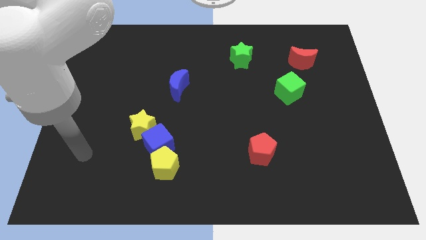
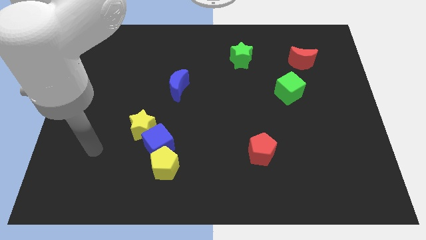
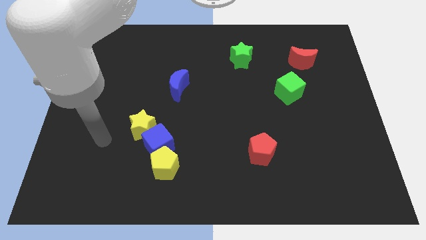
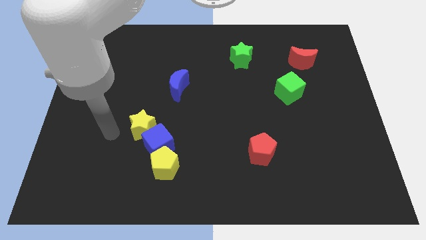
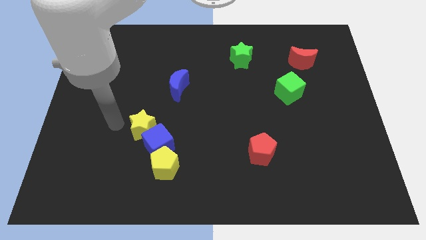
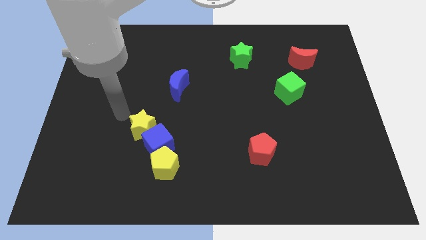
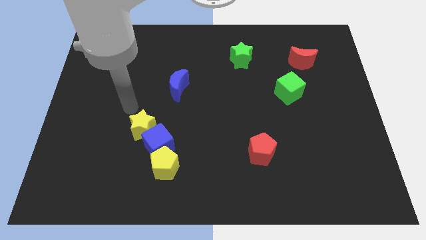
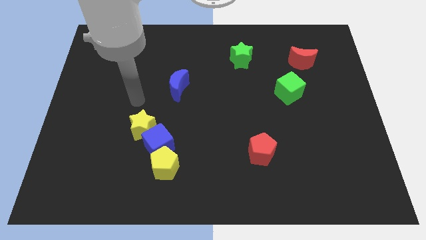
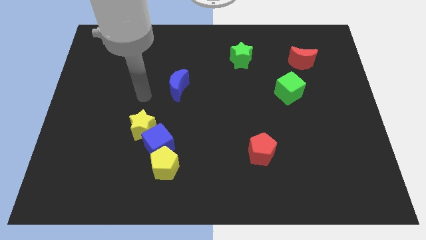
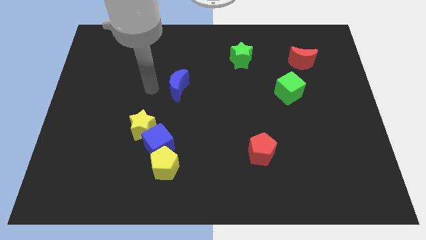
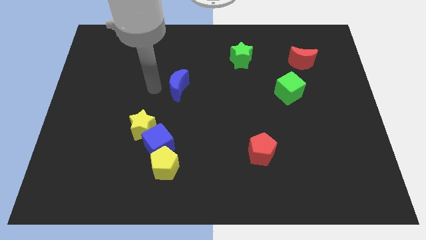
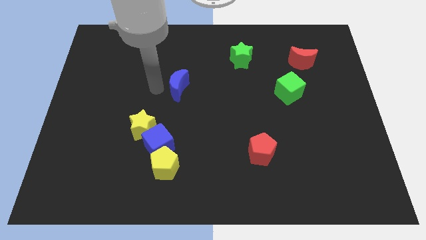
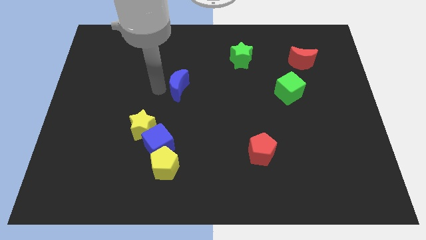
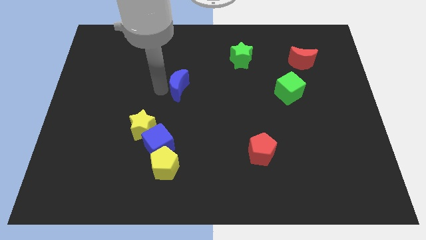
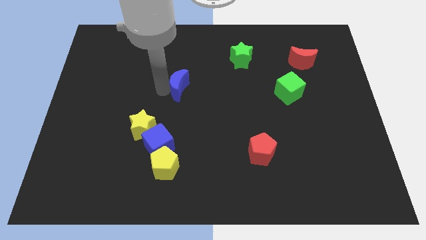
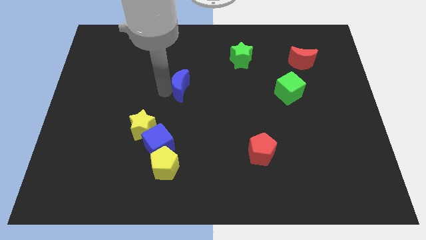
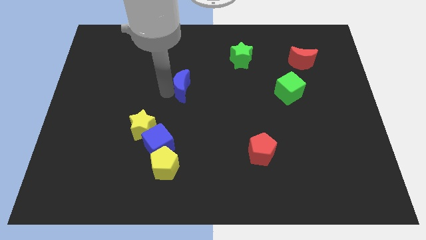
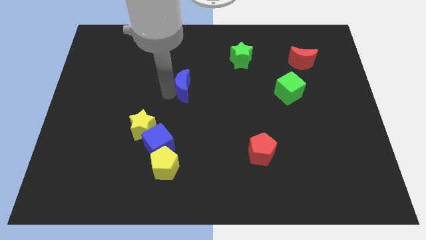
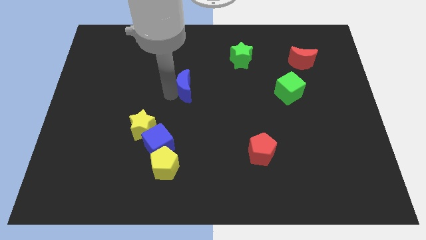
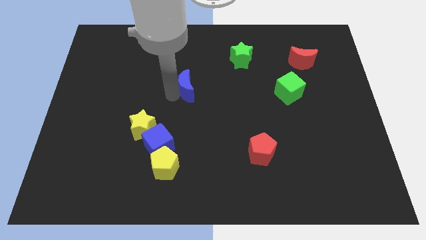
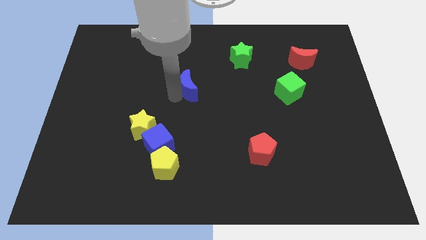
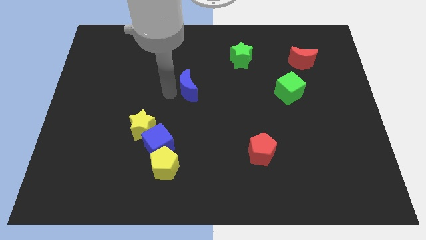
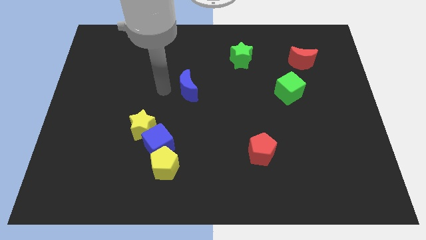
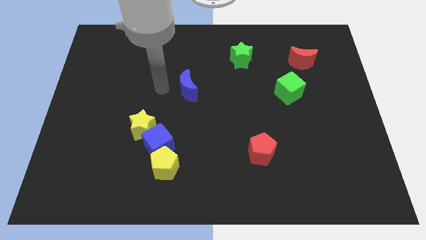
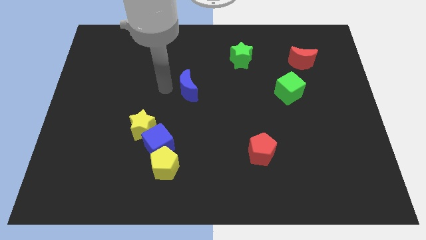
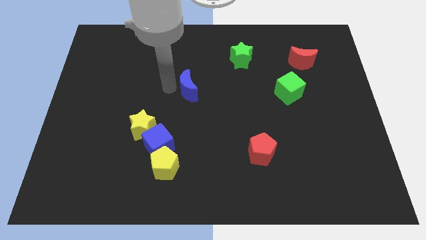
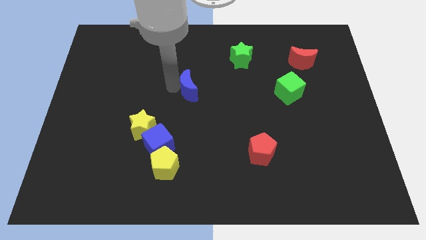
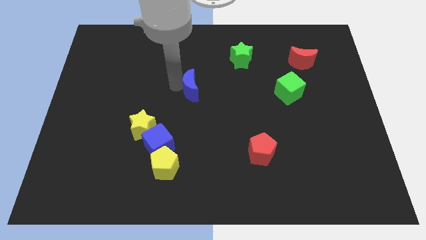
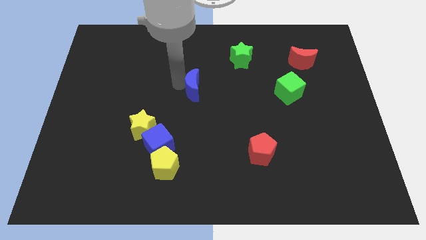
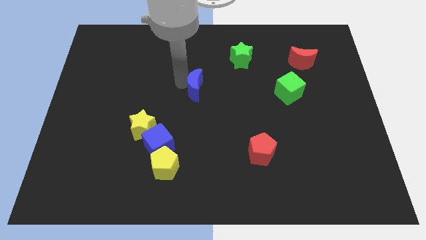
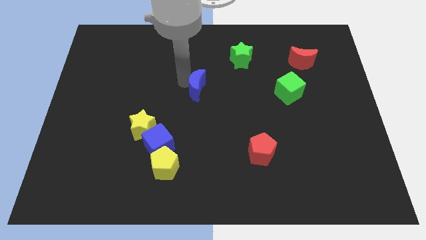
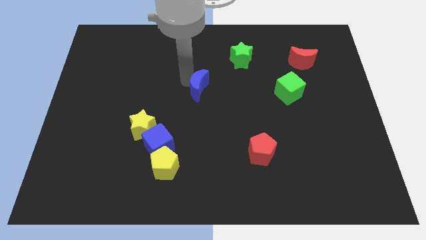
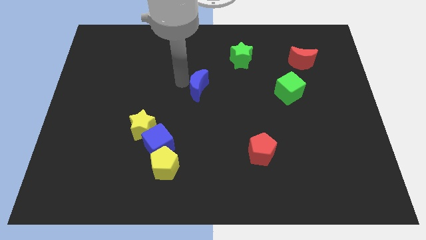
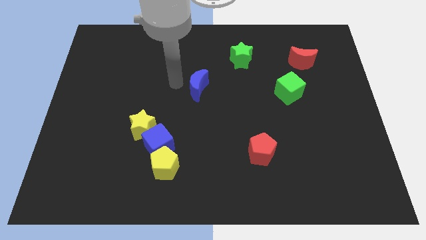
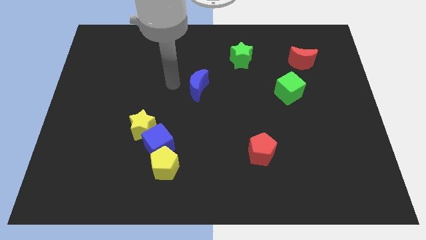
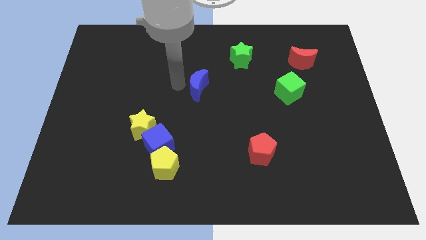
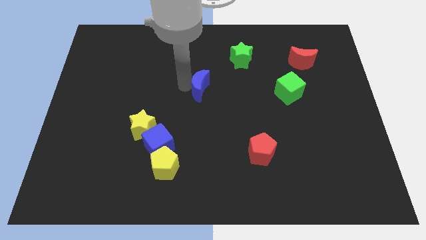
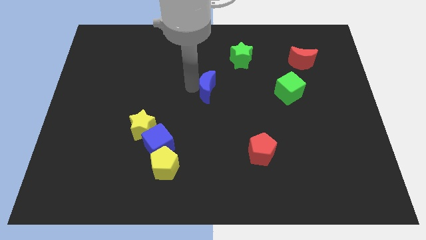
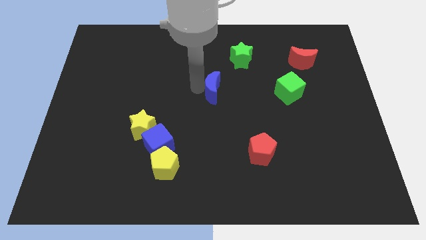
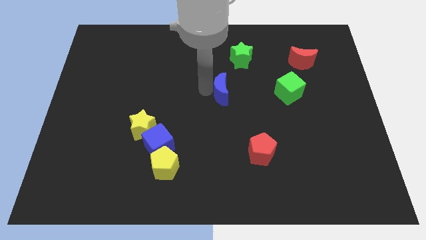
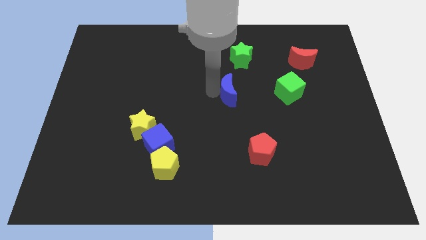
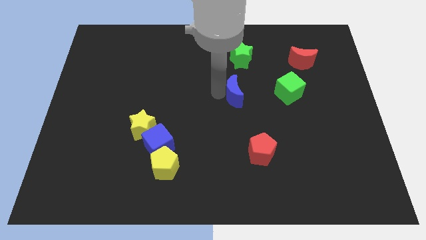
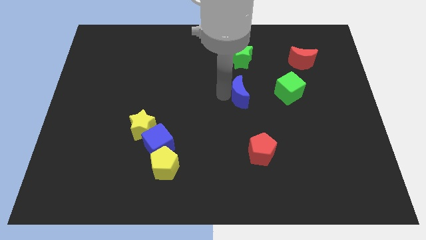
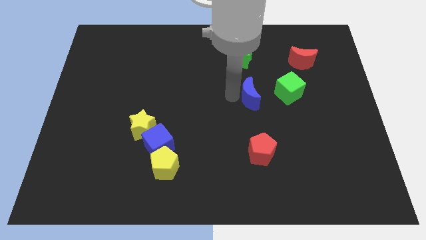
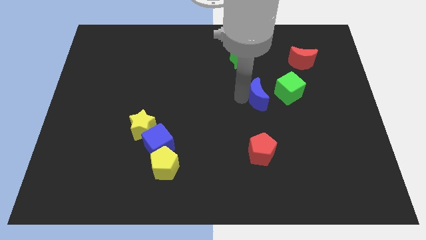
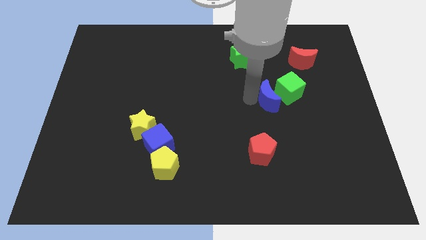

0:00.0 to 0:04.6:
slide the blue moon next to the green cube

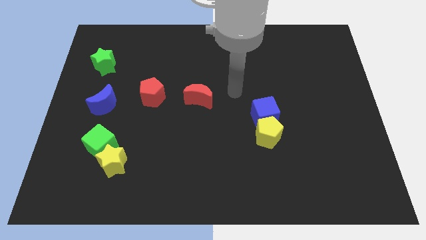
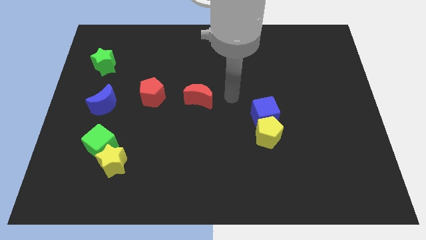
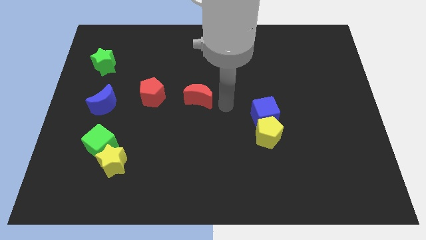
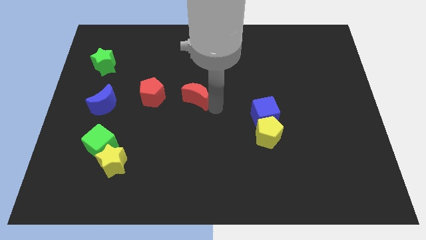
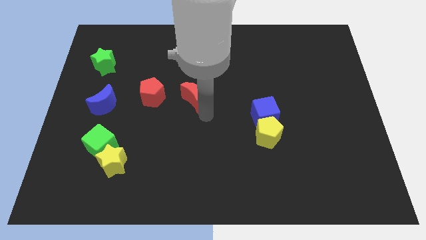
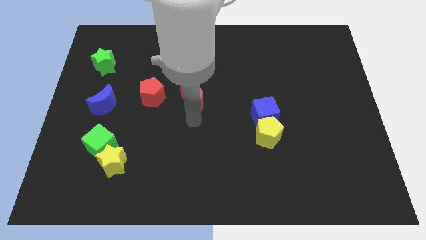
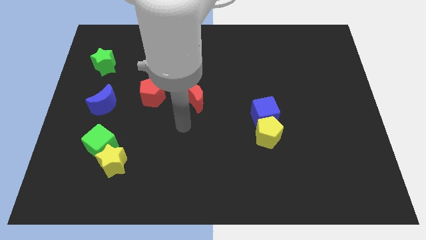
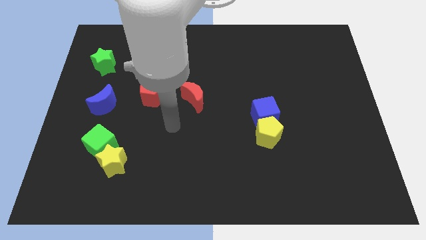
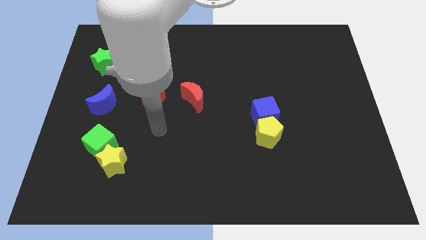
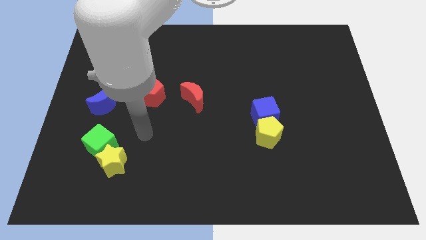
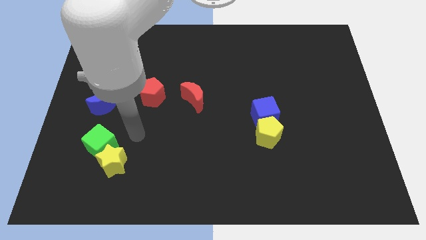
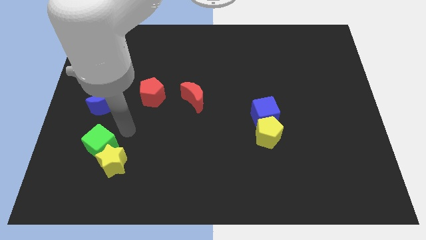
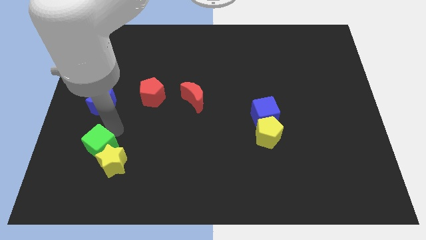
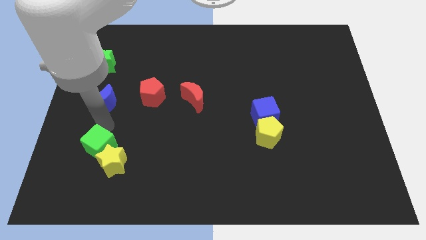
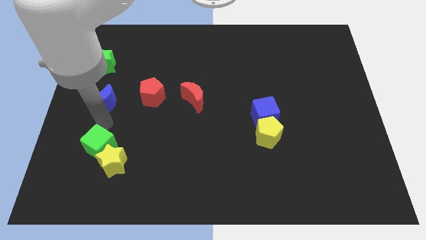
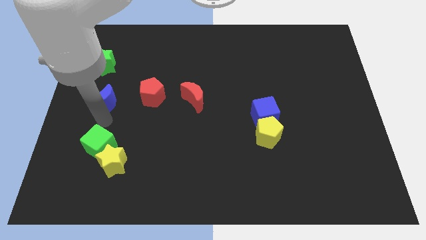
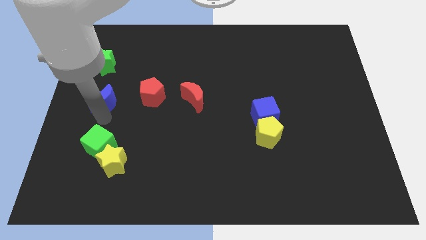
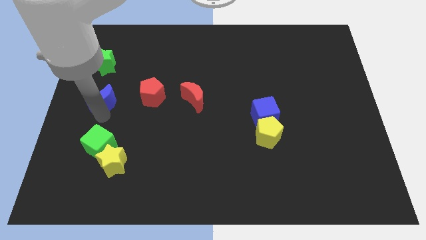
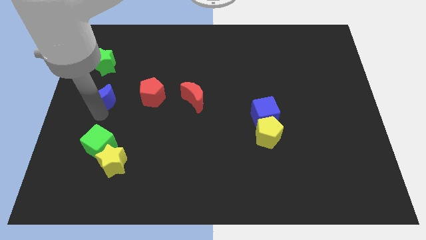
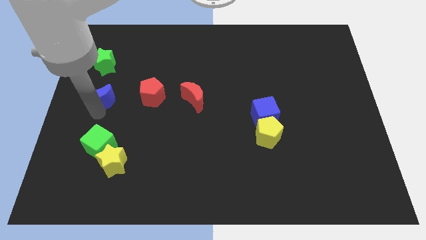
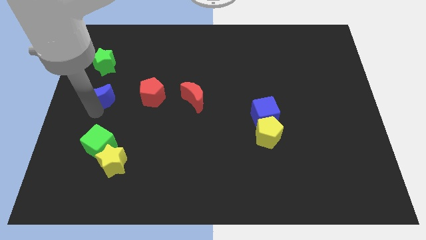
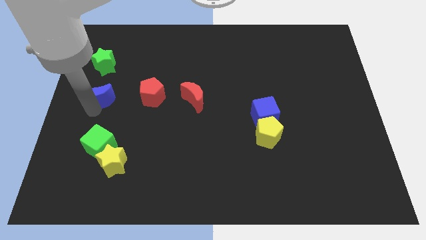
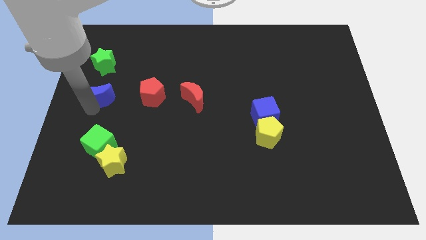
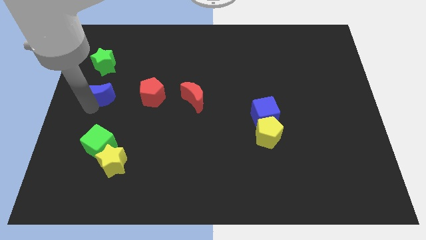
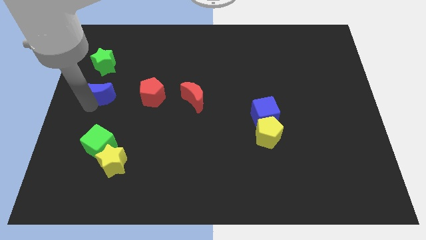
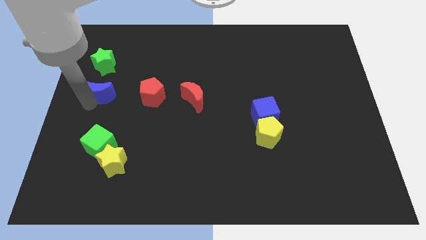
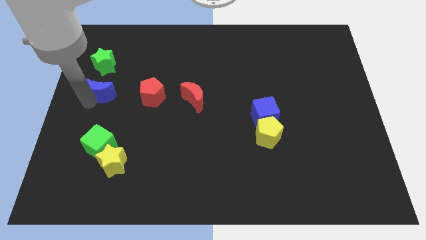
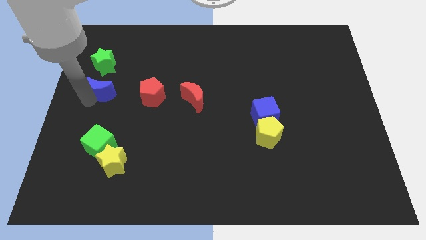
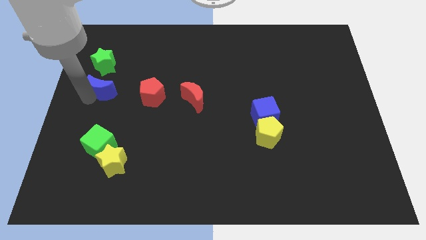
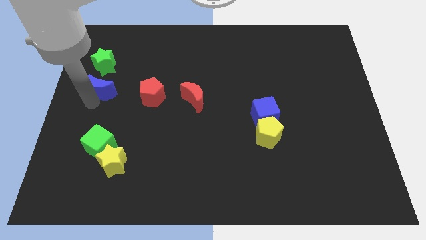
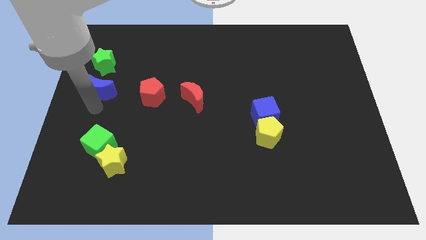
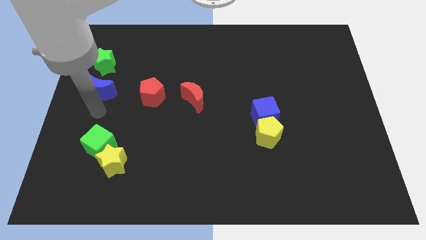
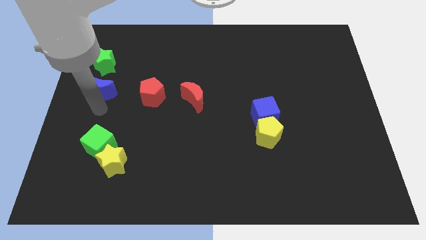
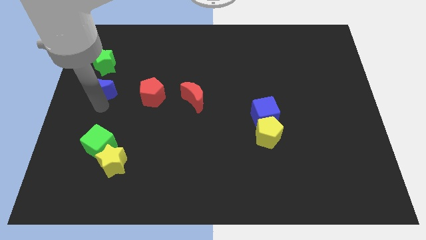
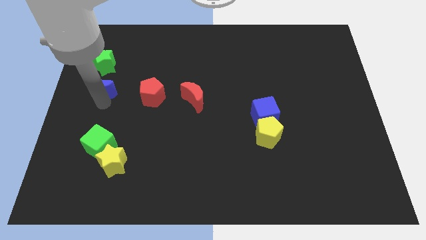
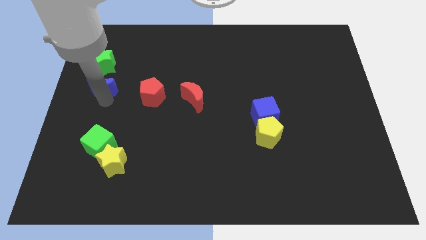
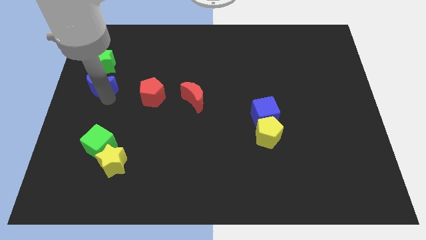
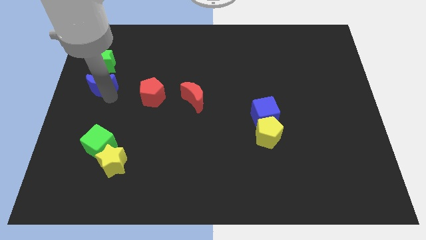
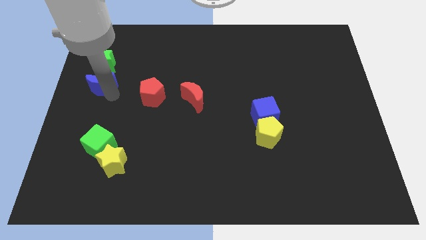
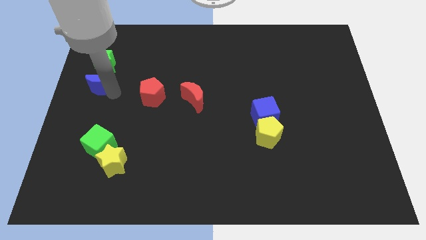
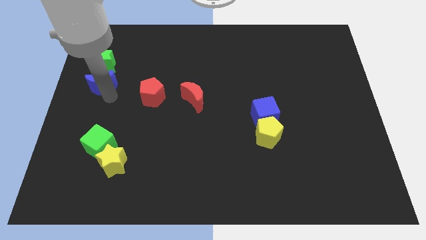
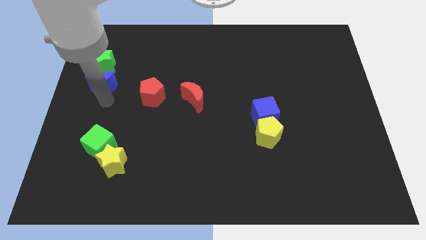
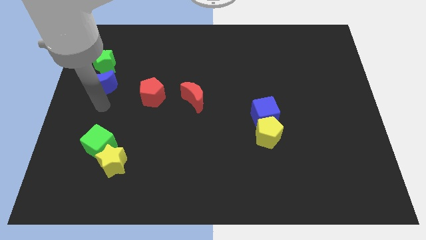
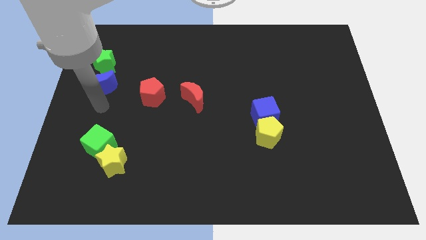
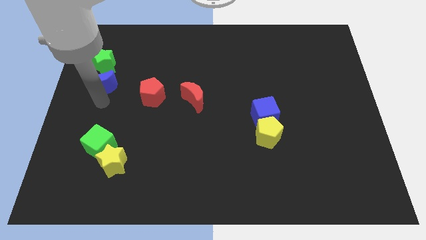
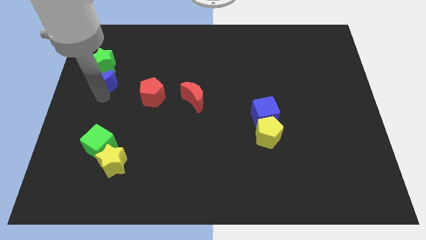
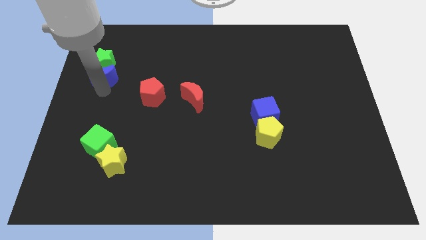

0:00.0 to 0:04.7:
put the blue moon close to the green star
